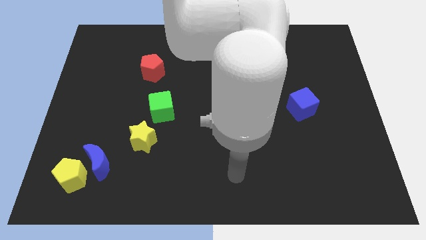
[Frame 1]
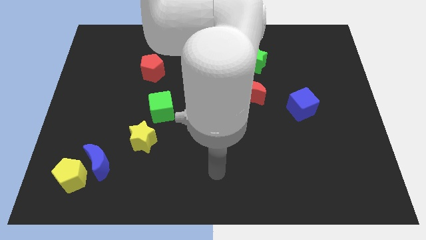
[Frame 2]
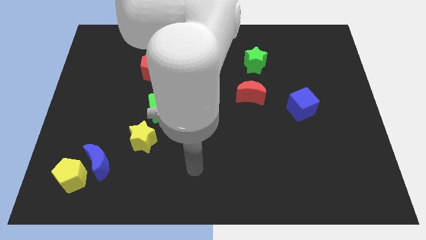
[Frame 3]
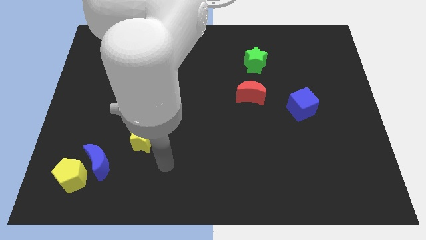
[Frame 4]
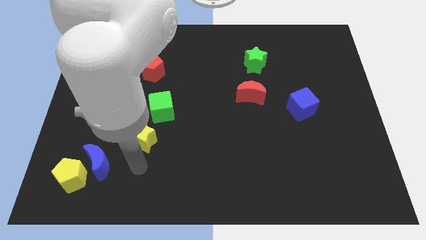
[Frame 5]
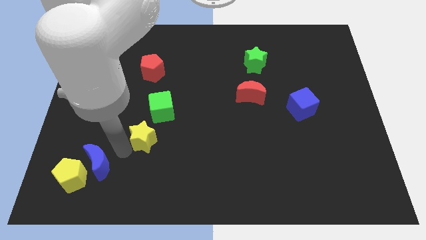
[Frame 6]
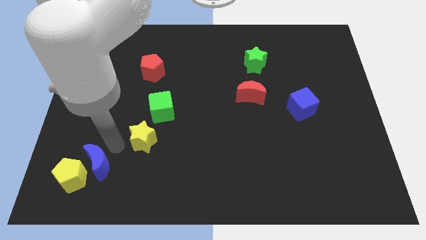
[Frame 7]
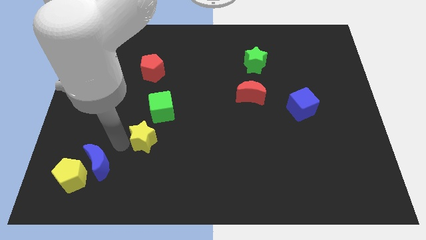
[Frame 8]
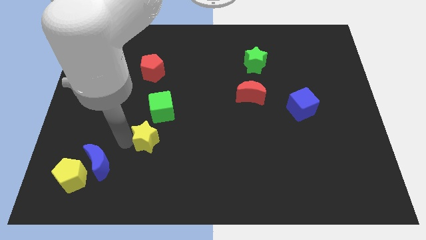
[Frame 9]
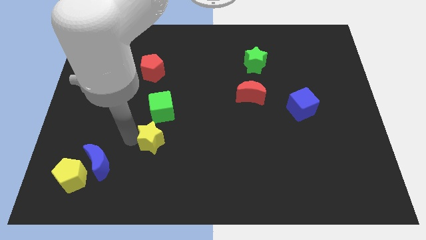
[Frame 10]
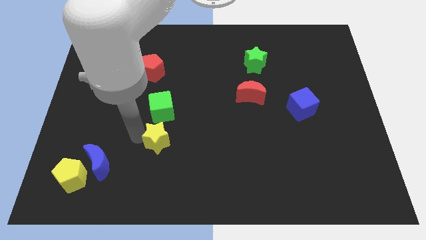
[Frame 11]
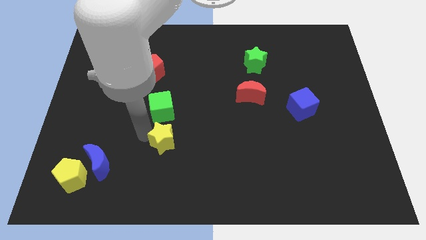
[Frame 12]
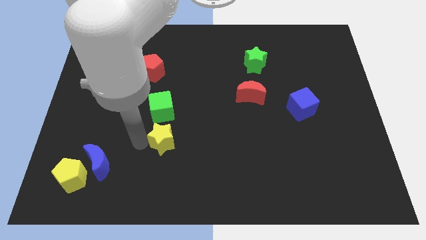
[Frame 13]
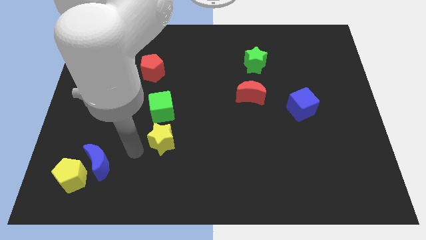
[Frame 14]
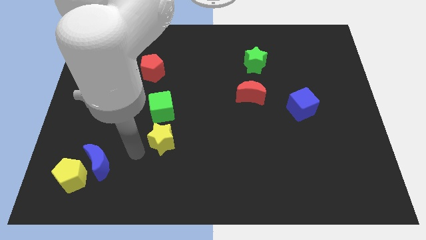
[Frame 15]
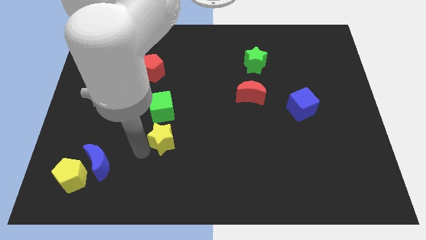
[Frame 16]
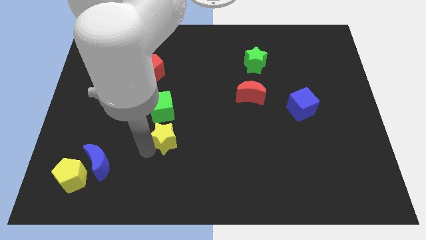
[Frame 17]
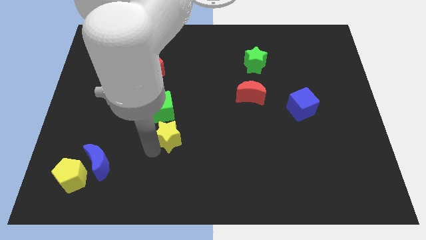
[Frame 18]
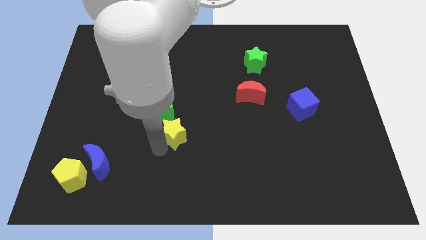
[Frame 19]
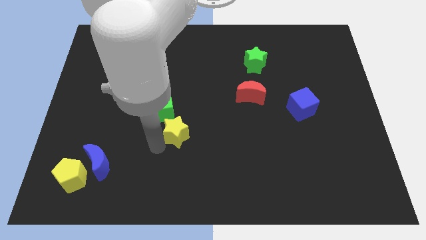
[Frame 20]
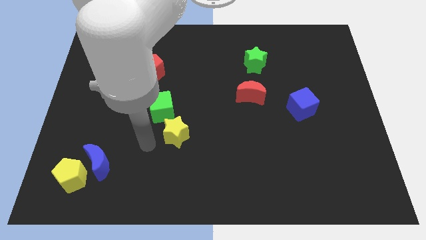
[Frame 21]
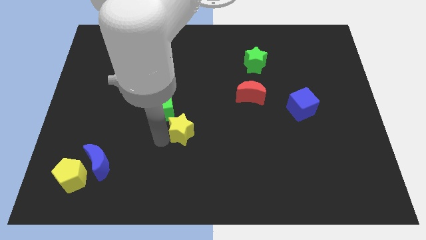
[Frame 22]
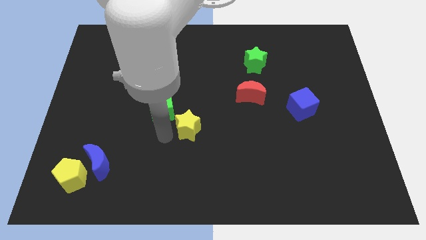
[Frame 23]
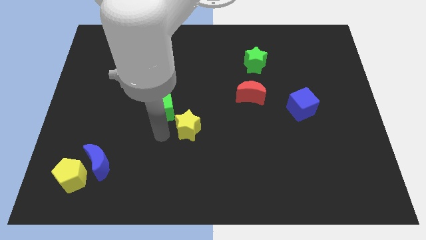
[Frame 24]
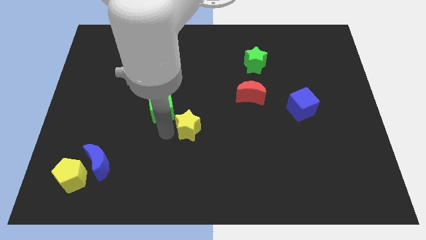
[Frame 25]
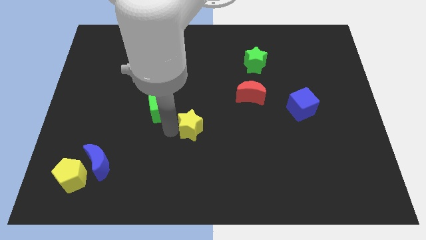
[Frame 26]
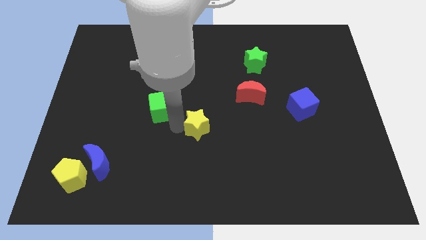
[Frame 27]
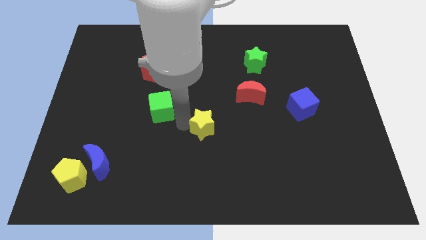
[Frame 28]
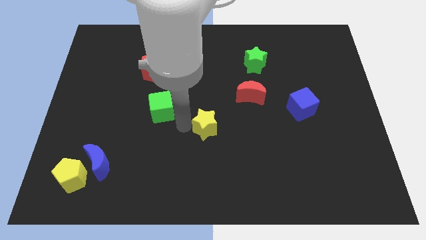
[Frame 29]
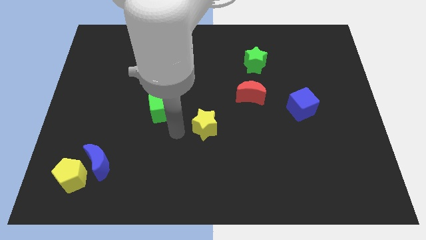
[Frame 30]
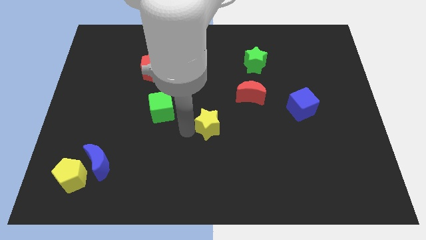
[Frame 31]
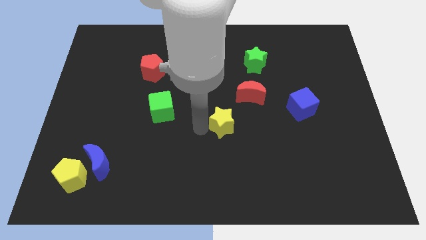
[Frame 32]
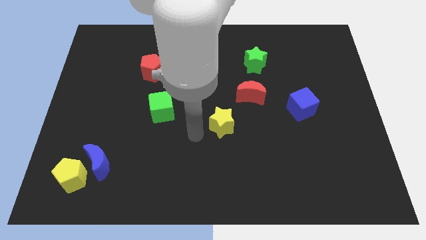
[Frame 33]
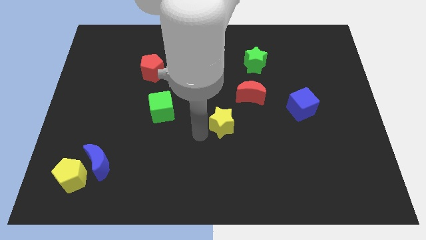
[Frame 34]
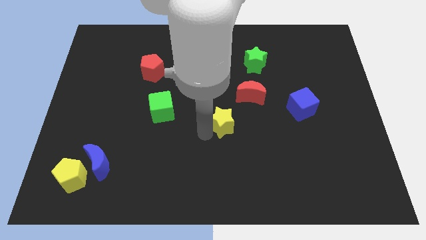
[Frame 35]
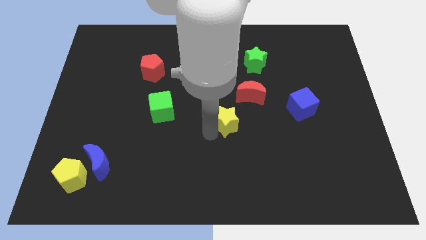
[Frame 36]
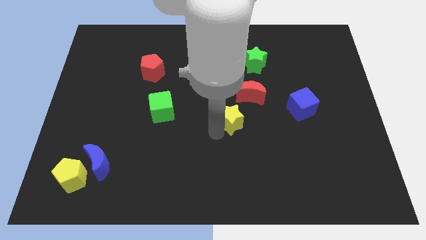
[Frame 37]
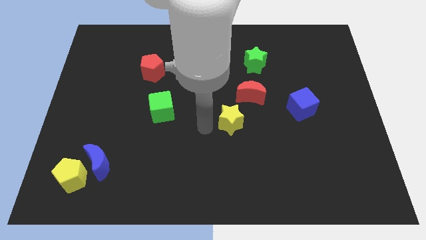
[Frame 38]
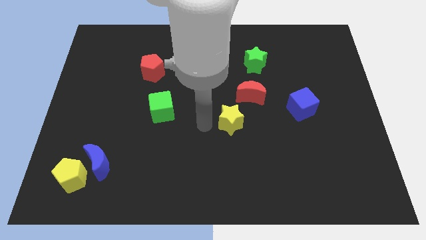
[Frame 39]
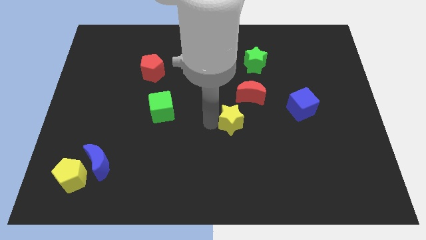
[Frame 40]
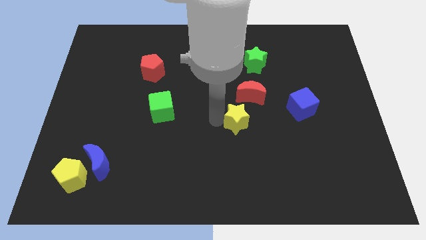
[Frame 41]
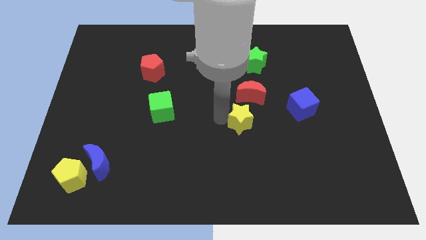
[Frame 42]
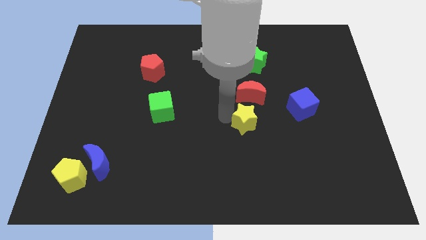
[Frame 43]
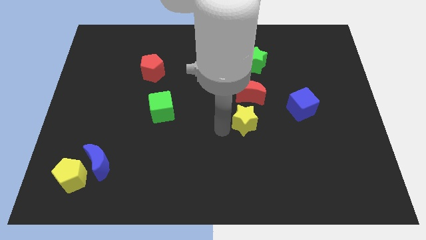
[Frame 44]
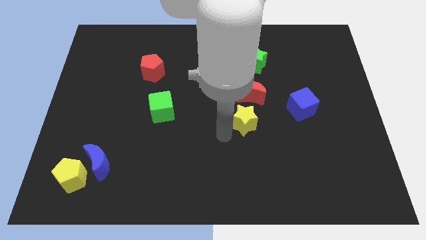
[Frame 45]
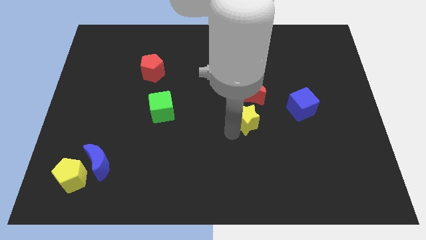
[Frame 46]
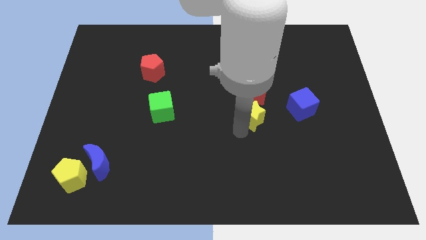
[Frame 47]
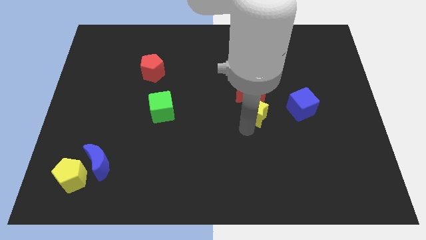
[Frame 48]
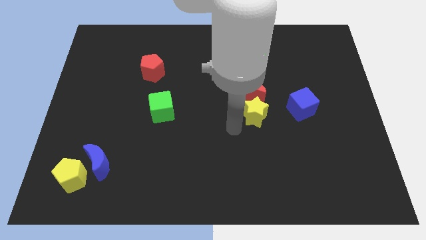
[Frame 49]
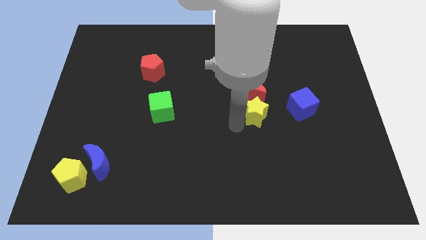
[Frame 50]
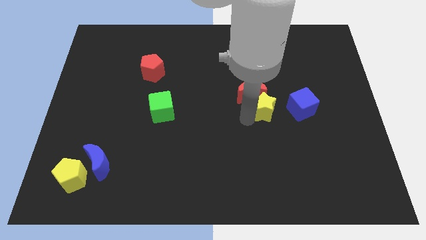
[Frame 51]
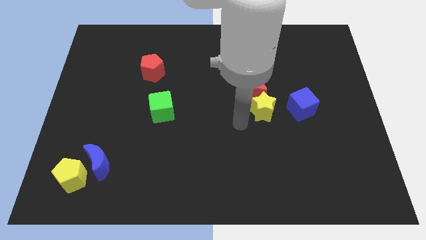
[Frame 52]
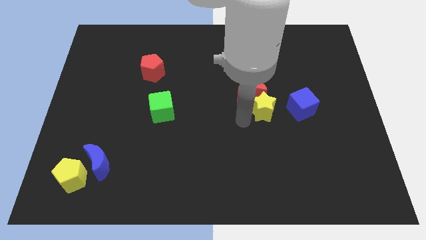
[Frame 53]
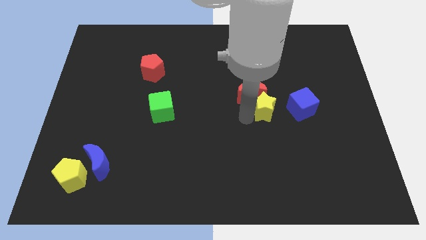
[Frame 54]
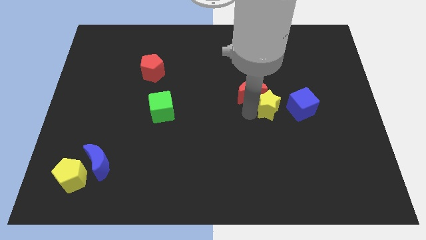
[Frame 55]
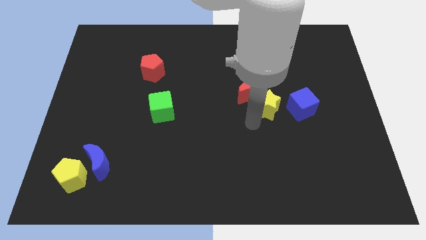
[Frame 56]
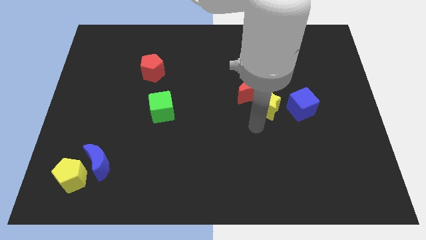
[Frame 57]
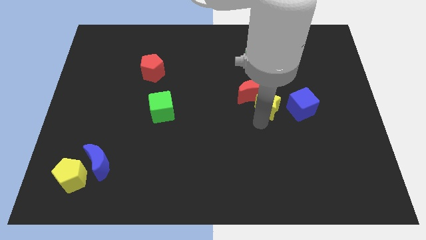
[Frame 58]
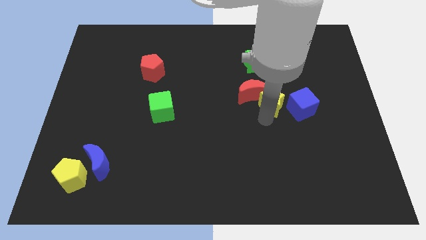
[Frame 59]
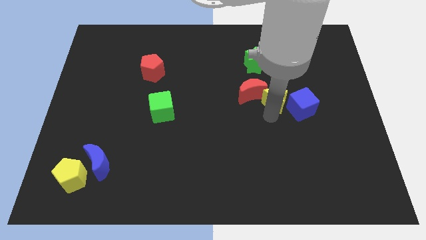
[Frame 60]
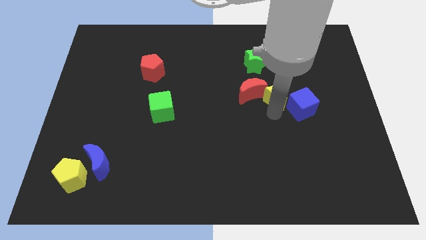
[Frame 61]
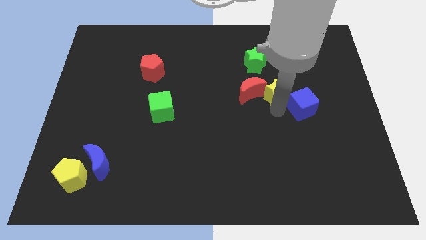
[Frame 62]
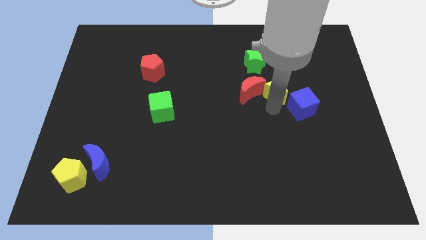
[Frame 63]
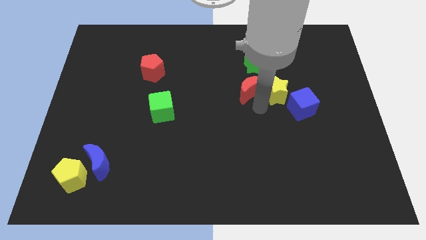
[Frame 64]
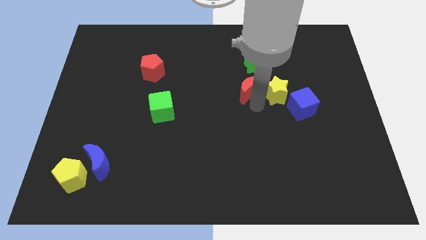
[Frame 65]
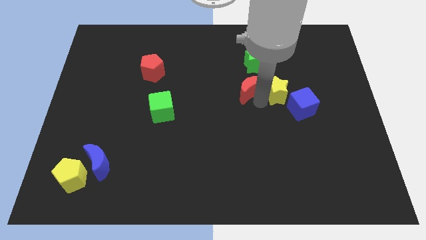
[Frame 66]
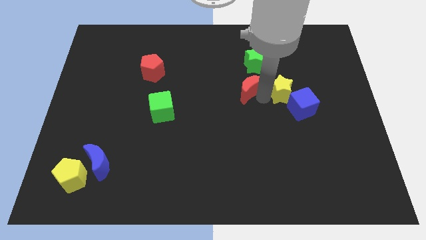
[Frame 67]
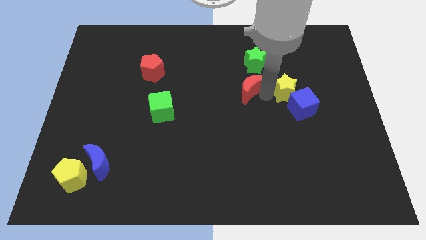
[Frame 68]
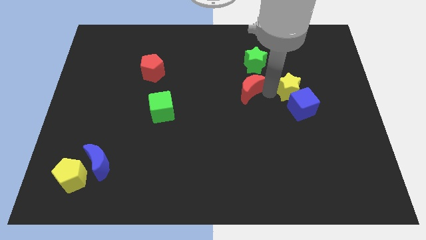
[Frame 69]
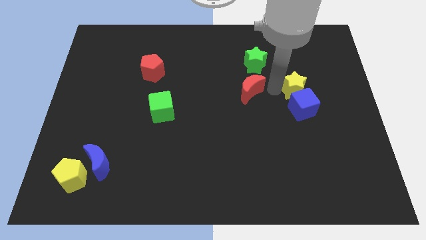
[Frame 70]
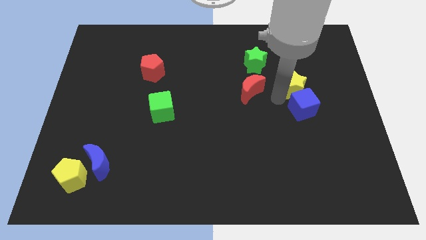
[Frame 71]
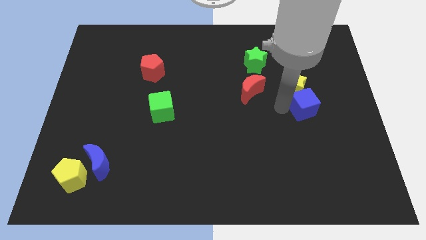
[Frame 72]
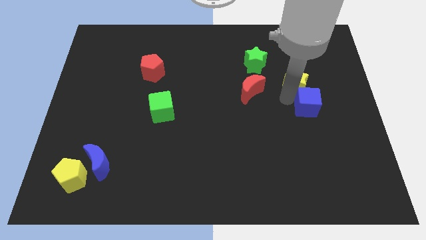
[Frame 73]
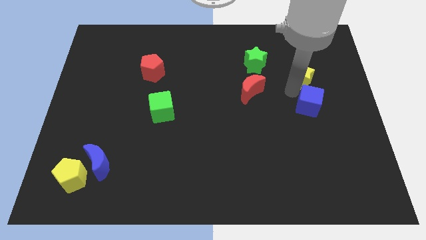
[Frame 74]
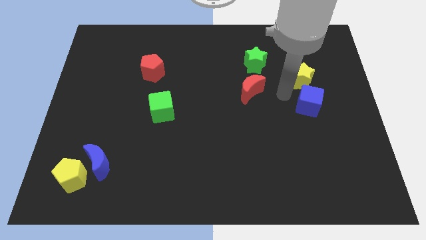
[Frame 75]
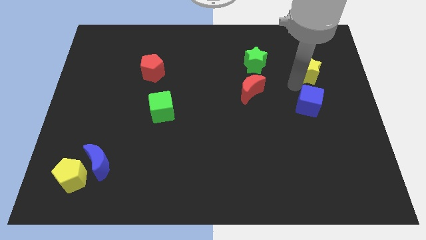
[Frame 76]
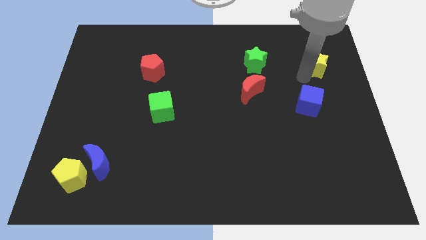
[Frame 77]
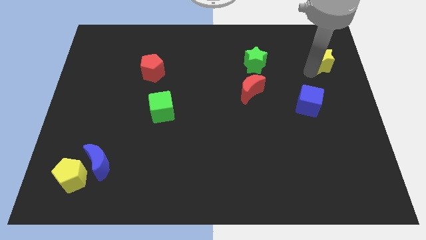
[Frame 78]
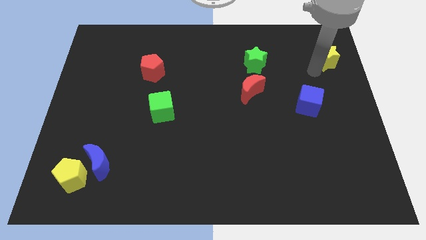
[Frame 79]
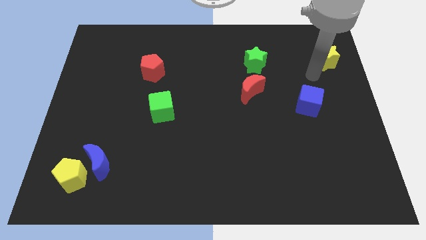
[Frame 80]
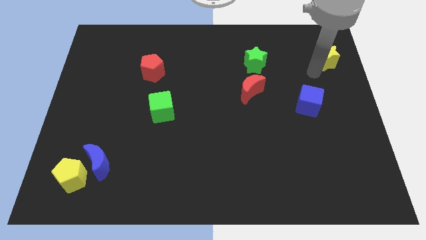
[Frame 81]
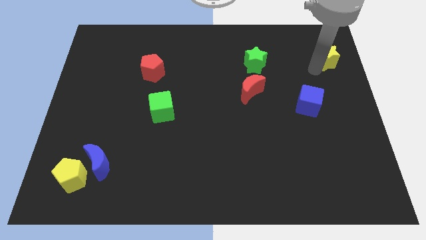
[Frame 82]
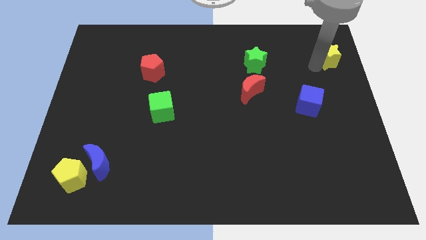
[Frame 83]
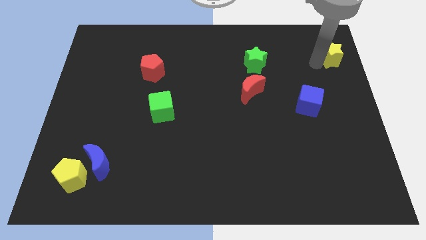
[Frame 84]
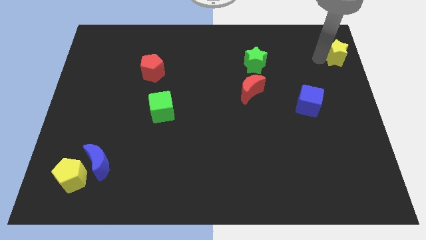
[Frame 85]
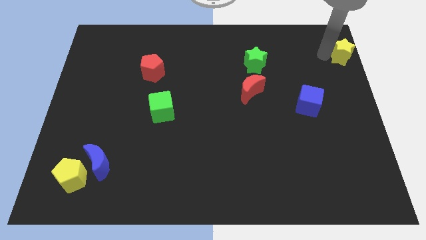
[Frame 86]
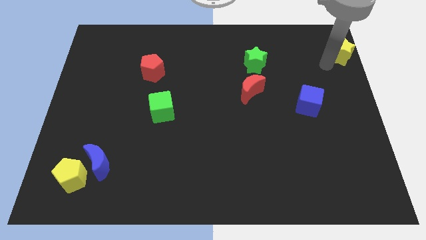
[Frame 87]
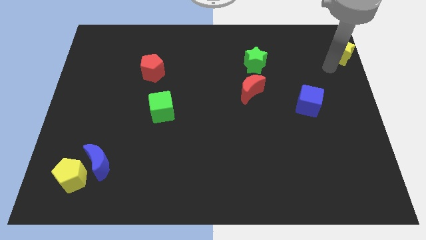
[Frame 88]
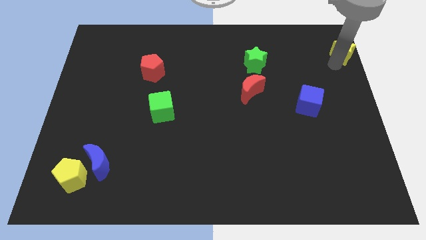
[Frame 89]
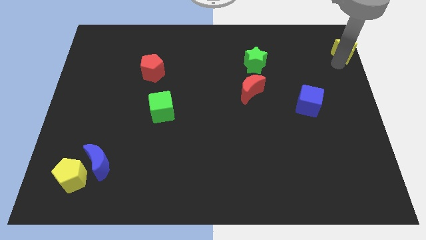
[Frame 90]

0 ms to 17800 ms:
push the yellow star to the upper right corner
